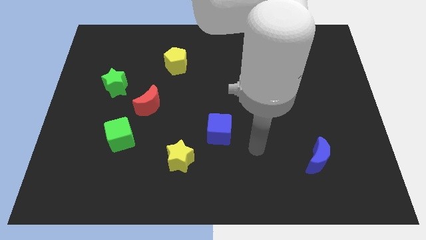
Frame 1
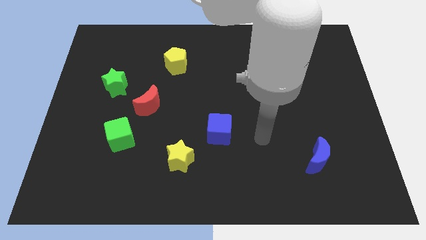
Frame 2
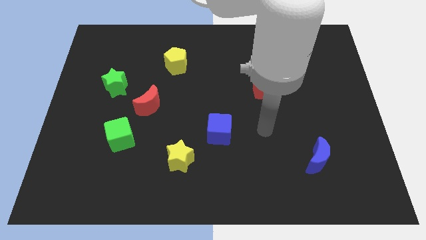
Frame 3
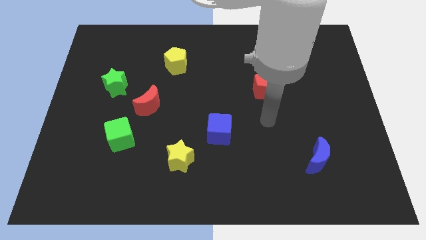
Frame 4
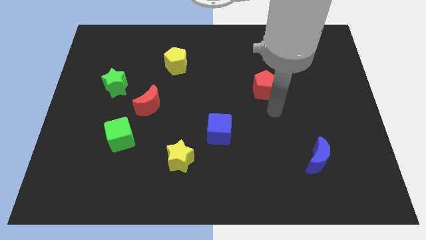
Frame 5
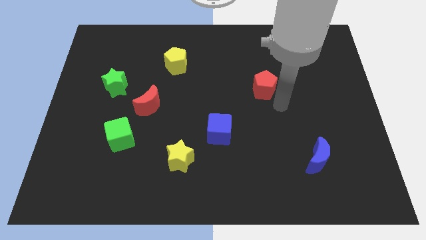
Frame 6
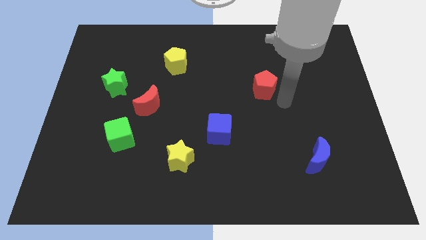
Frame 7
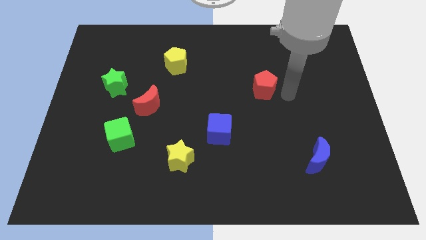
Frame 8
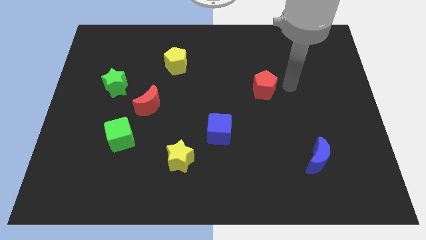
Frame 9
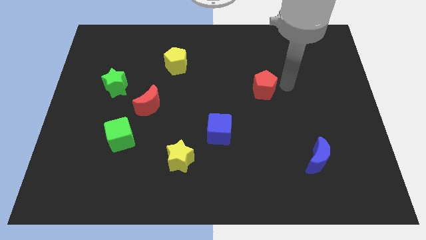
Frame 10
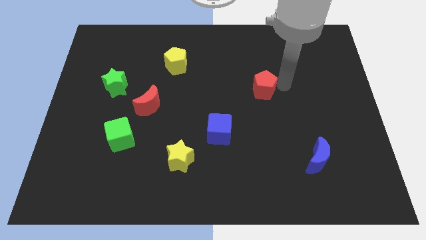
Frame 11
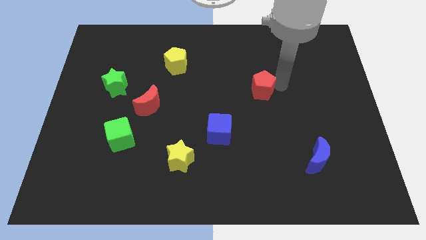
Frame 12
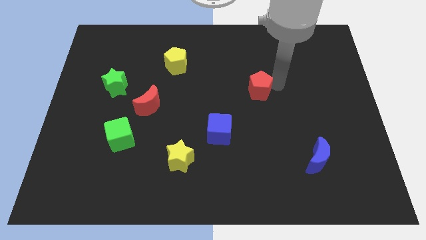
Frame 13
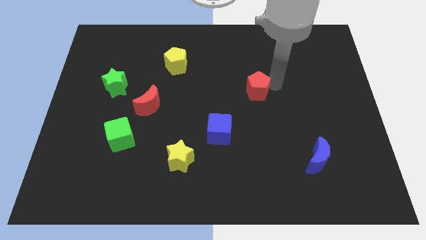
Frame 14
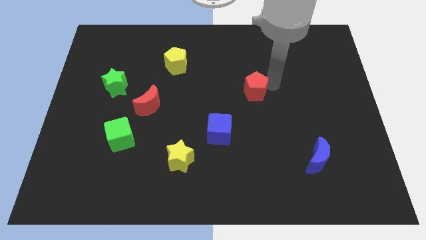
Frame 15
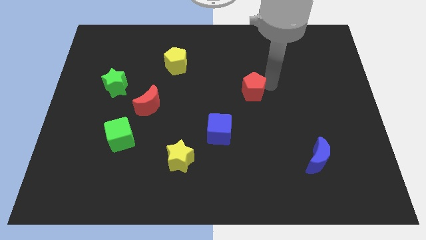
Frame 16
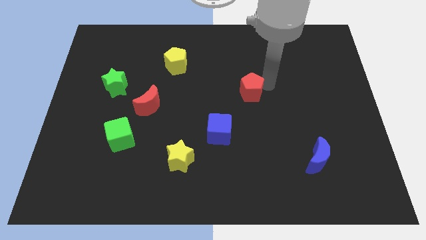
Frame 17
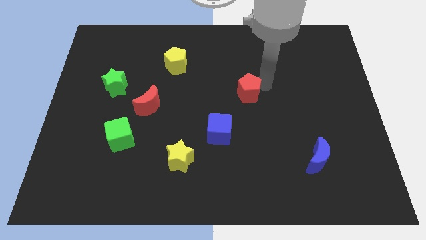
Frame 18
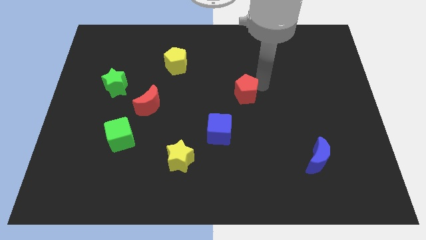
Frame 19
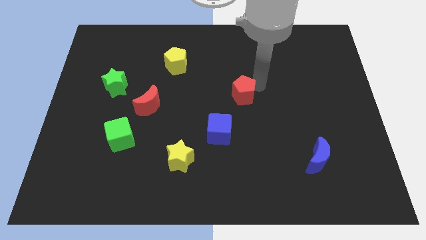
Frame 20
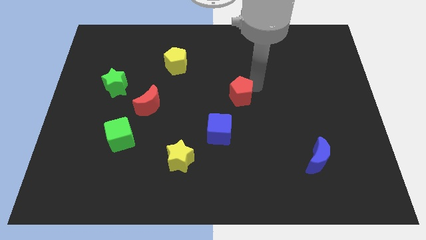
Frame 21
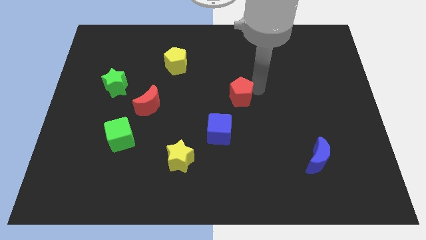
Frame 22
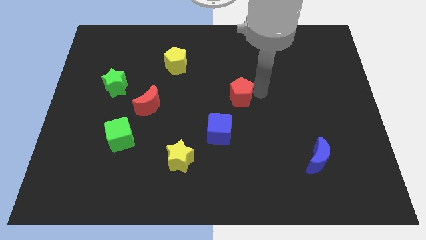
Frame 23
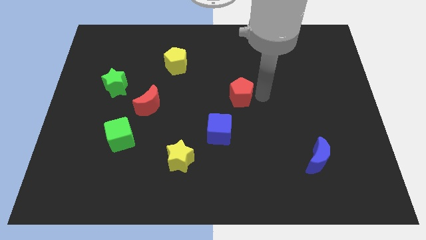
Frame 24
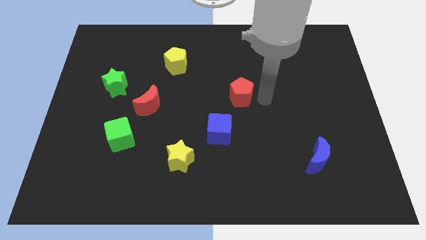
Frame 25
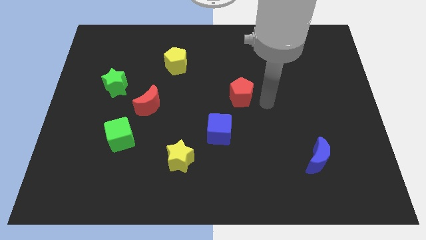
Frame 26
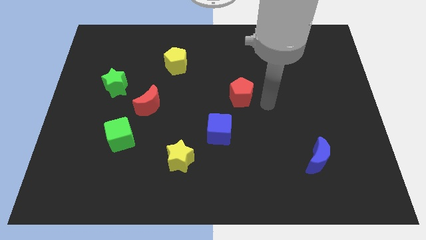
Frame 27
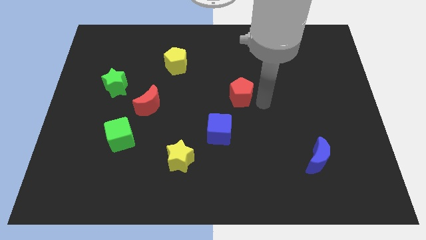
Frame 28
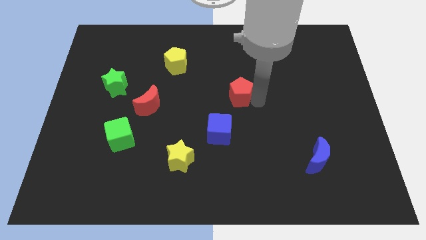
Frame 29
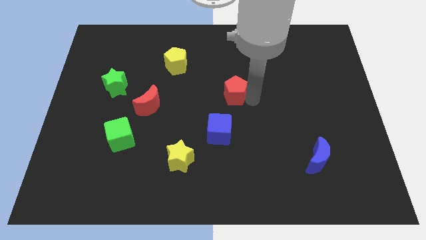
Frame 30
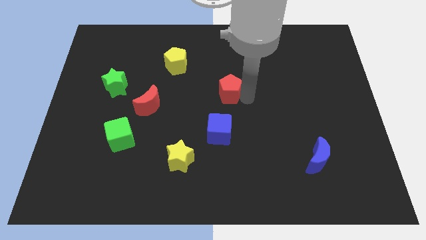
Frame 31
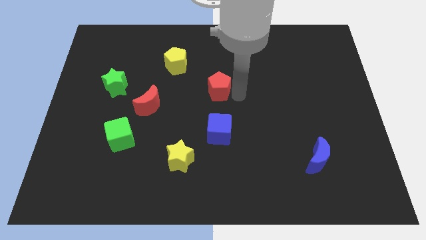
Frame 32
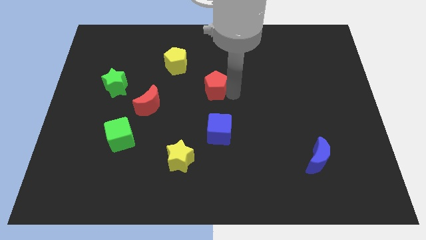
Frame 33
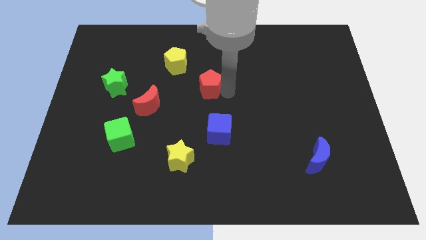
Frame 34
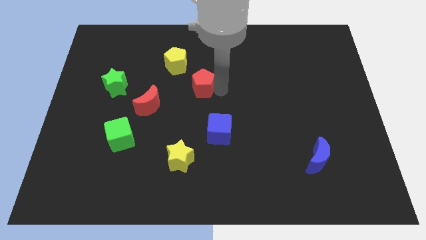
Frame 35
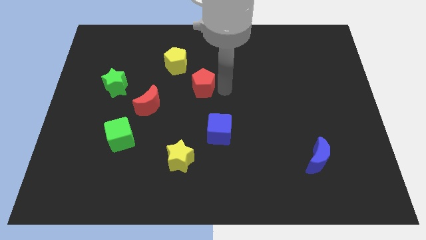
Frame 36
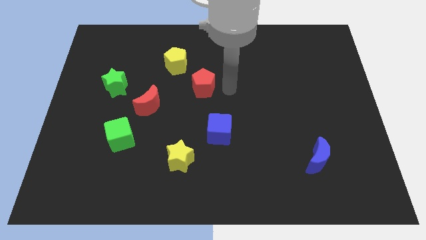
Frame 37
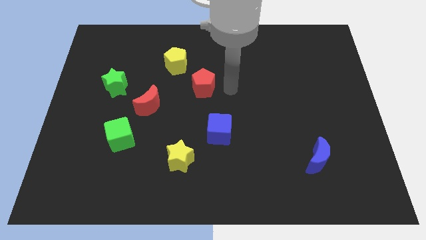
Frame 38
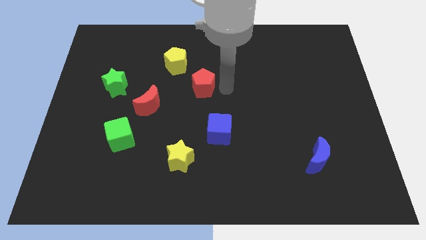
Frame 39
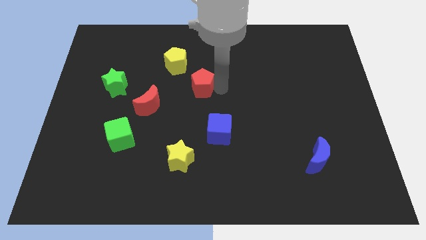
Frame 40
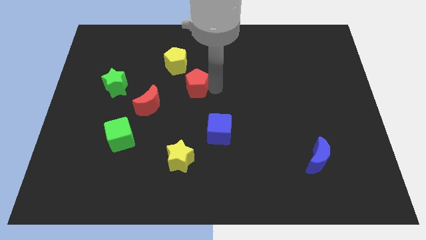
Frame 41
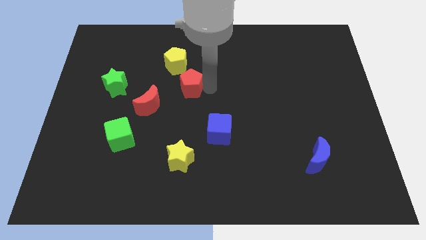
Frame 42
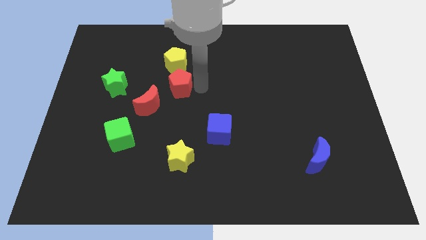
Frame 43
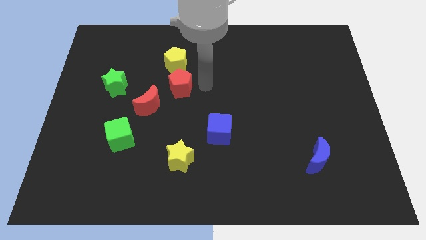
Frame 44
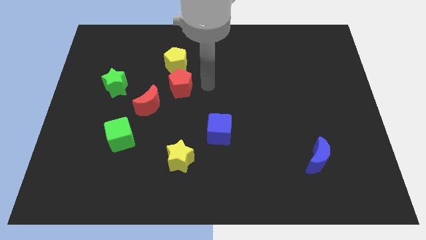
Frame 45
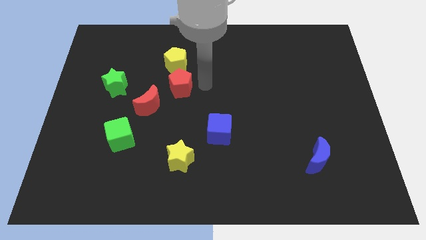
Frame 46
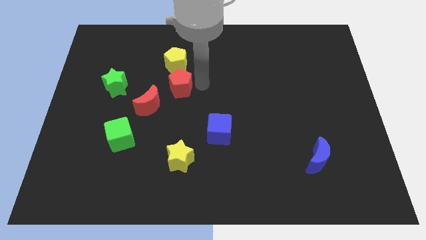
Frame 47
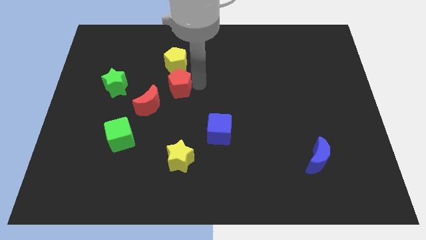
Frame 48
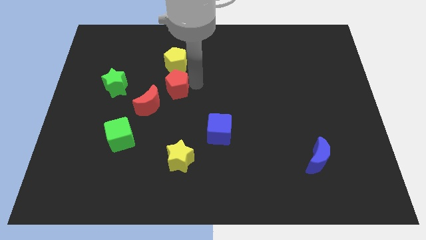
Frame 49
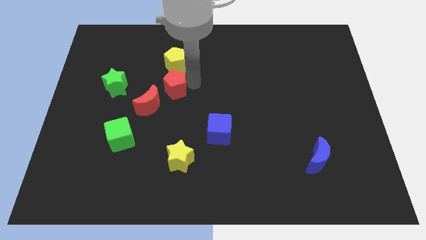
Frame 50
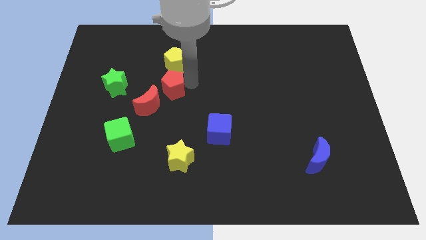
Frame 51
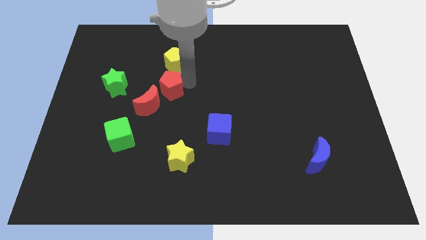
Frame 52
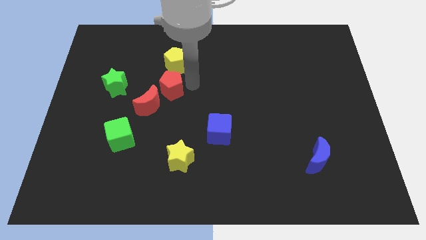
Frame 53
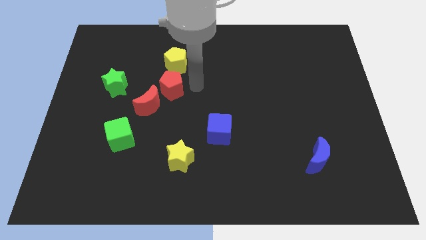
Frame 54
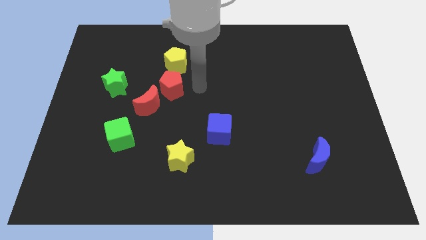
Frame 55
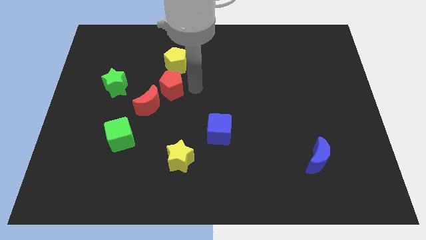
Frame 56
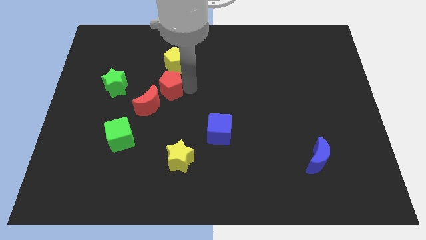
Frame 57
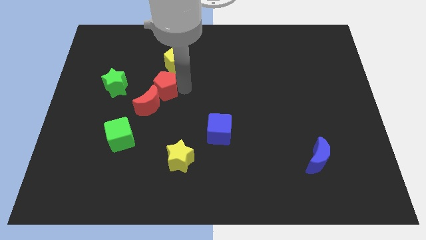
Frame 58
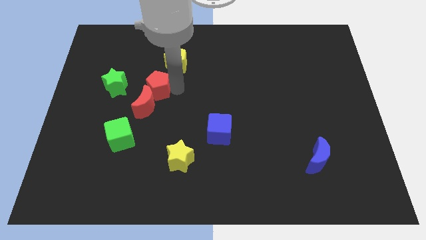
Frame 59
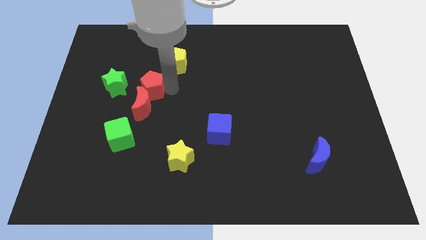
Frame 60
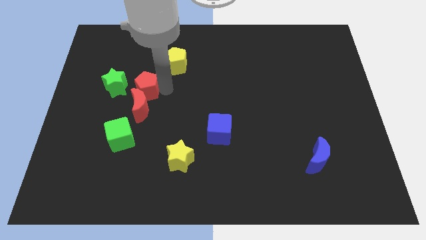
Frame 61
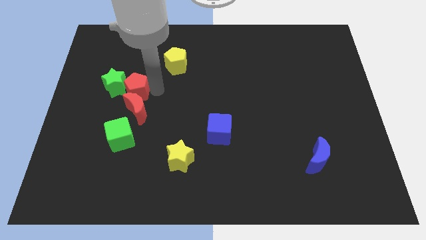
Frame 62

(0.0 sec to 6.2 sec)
slide the red pentagon towards the green star
